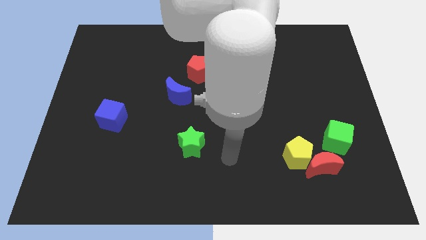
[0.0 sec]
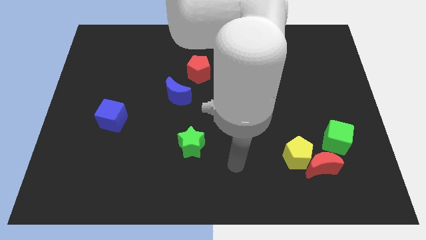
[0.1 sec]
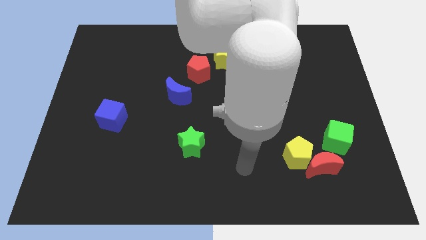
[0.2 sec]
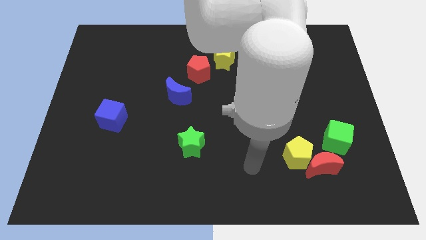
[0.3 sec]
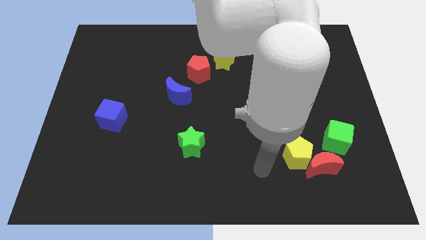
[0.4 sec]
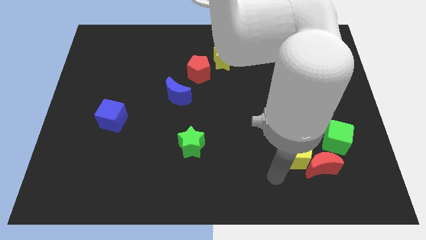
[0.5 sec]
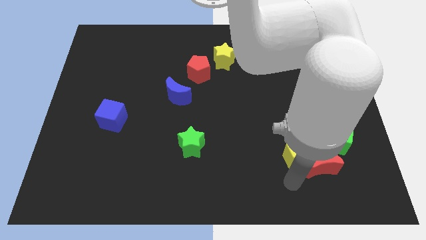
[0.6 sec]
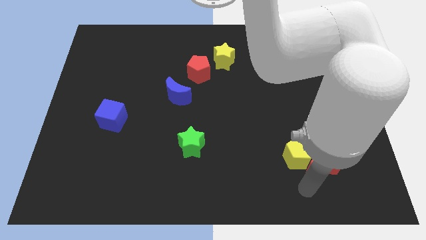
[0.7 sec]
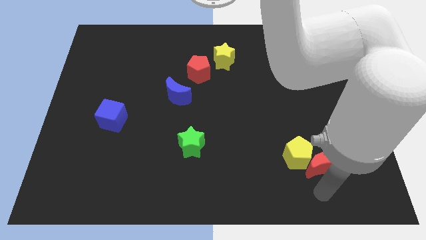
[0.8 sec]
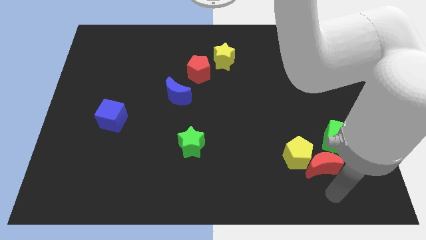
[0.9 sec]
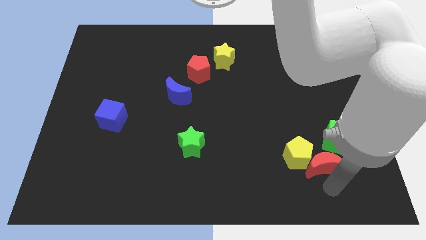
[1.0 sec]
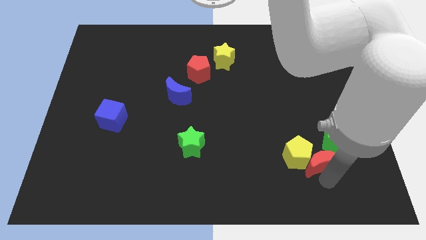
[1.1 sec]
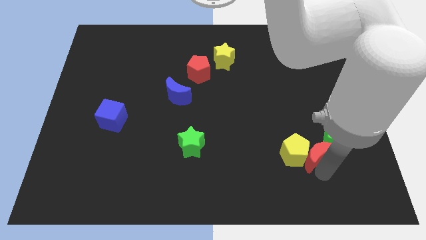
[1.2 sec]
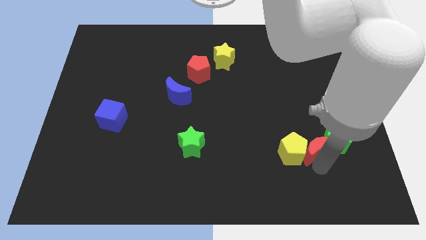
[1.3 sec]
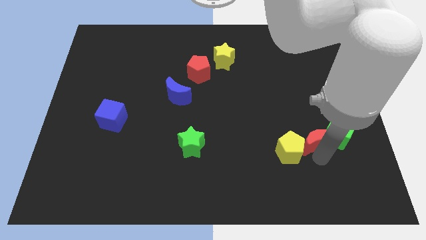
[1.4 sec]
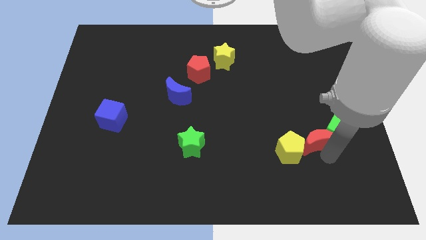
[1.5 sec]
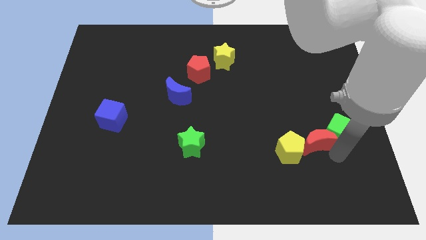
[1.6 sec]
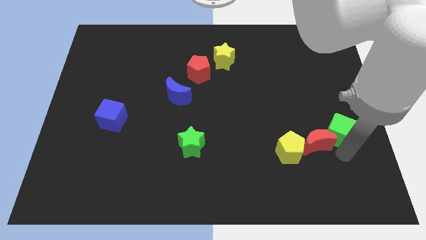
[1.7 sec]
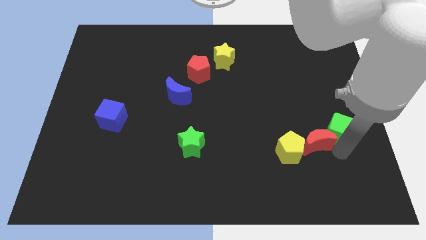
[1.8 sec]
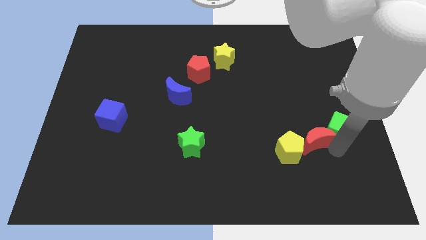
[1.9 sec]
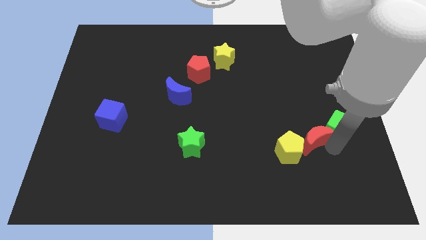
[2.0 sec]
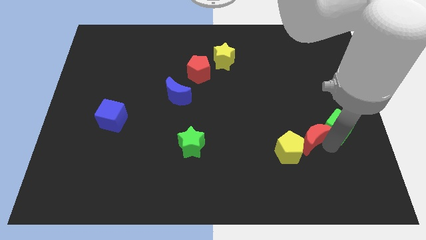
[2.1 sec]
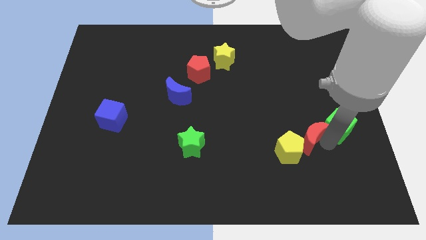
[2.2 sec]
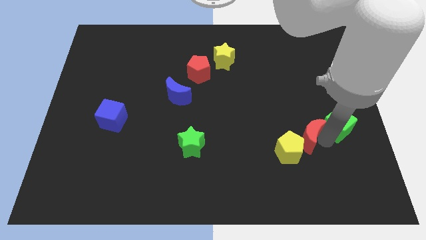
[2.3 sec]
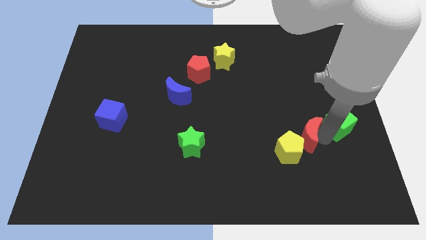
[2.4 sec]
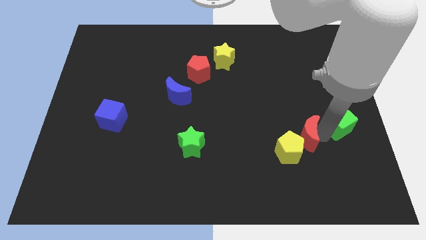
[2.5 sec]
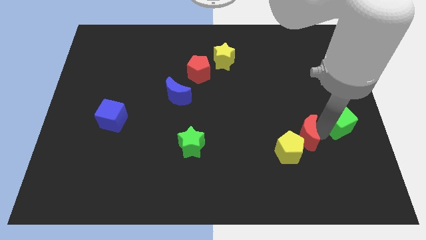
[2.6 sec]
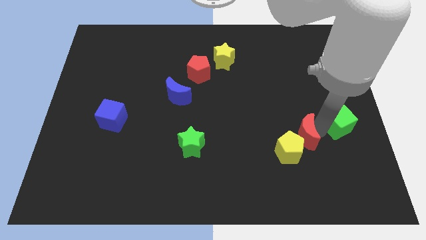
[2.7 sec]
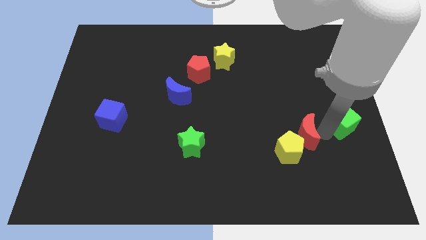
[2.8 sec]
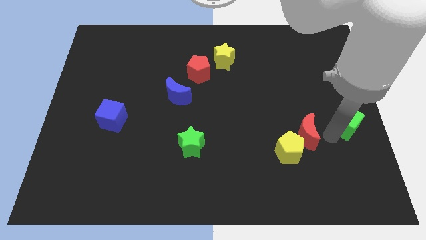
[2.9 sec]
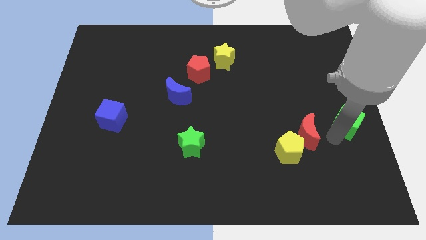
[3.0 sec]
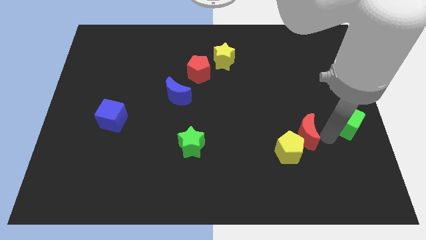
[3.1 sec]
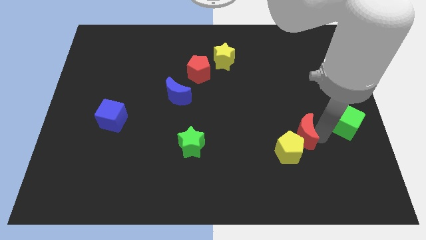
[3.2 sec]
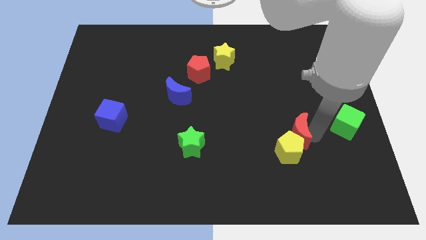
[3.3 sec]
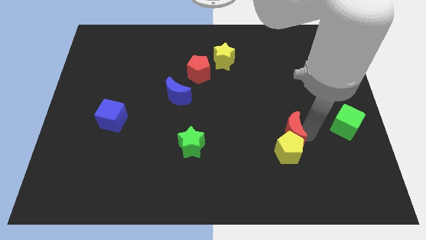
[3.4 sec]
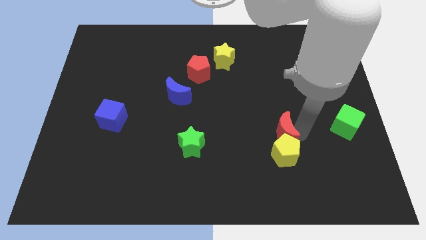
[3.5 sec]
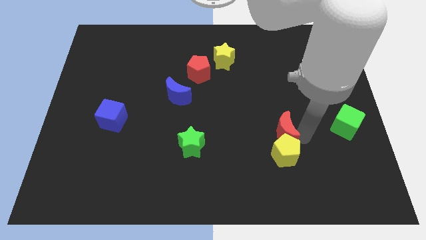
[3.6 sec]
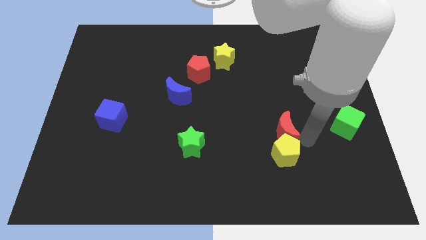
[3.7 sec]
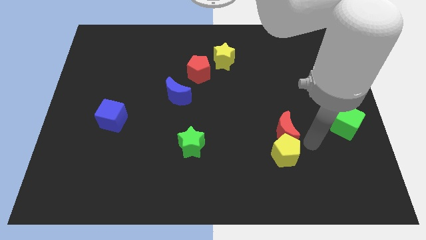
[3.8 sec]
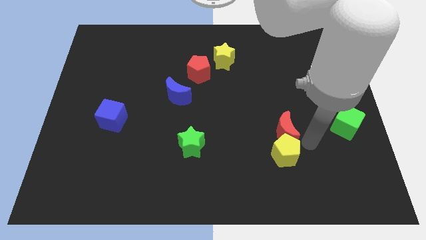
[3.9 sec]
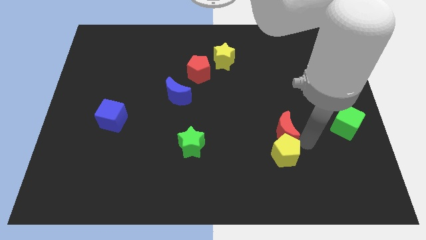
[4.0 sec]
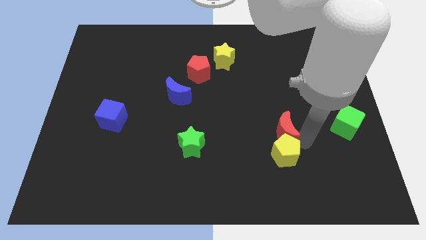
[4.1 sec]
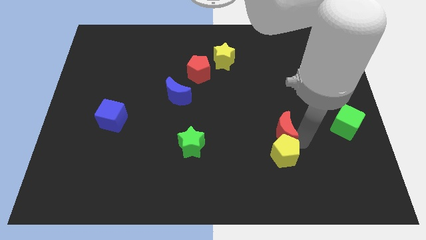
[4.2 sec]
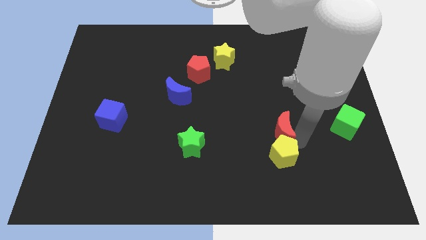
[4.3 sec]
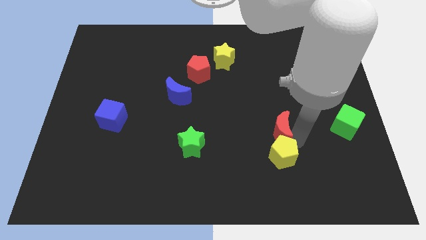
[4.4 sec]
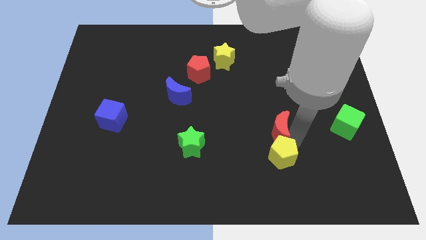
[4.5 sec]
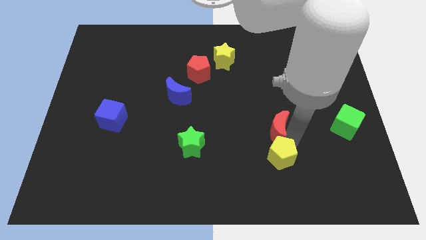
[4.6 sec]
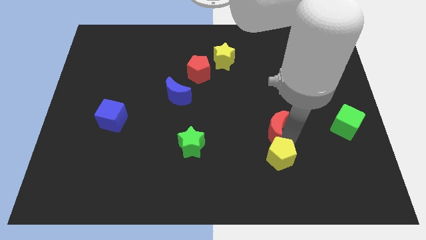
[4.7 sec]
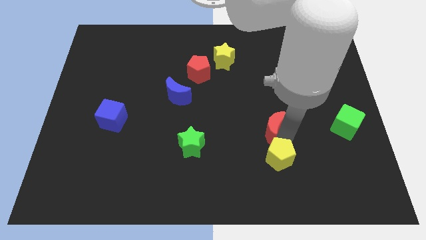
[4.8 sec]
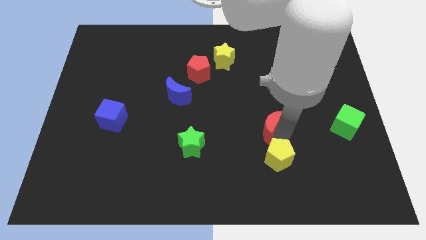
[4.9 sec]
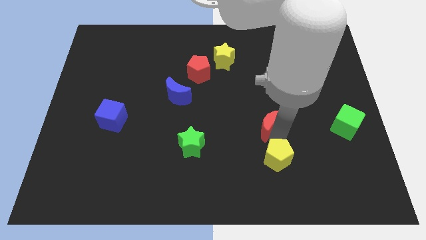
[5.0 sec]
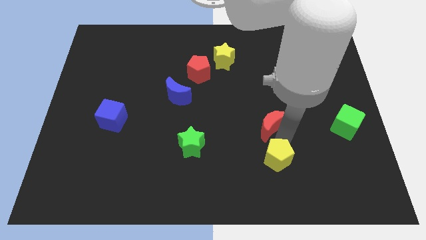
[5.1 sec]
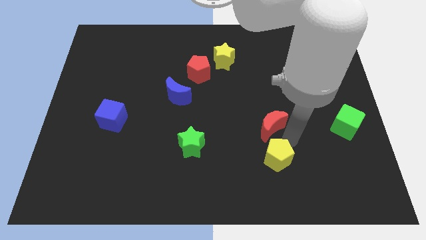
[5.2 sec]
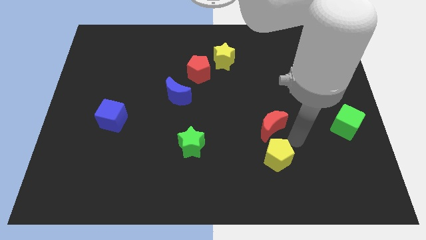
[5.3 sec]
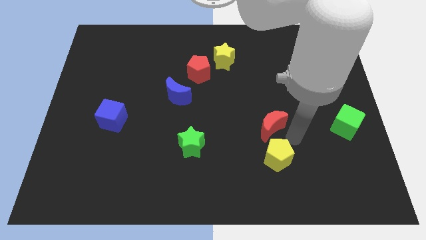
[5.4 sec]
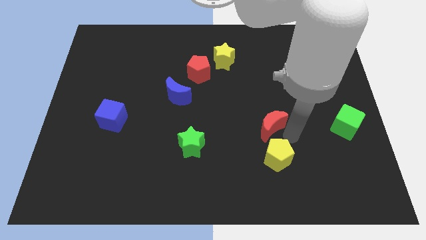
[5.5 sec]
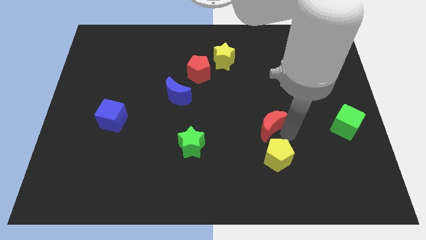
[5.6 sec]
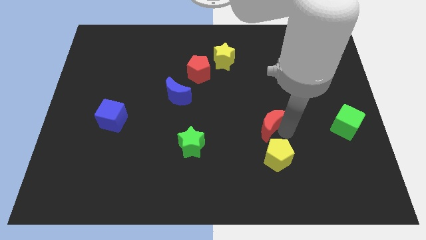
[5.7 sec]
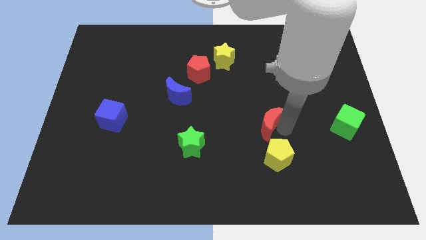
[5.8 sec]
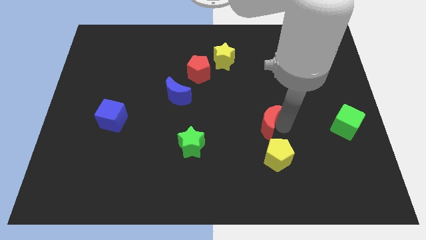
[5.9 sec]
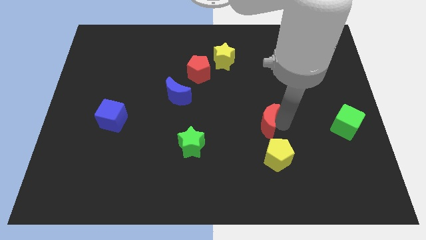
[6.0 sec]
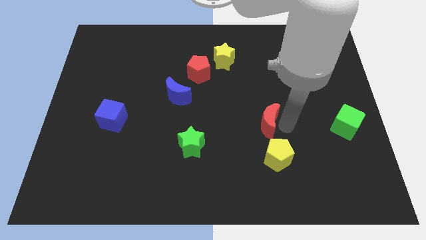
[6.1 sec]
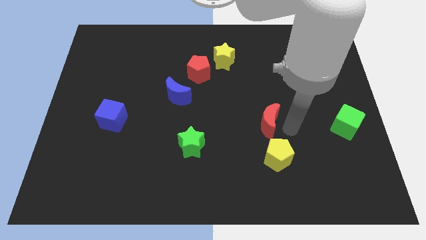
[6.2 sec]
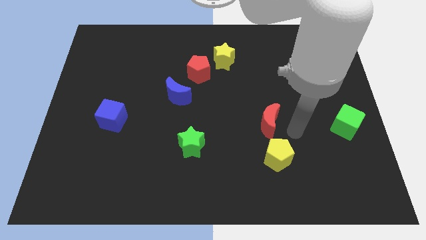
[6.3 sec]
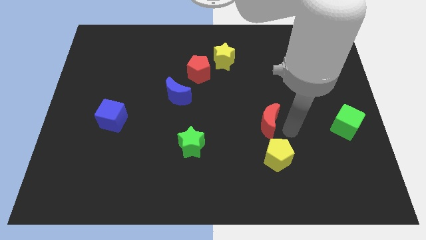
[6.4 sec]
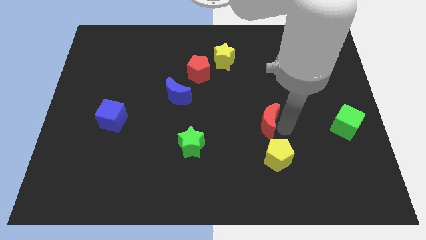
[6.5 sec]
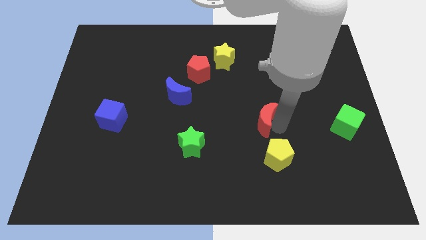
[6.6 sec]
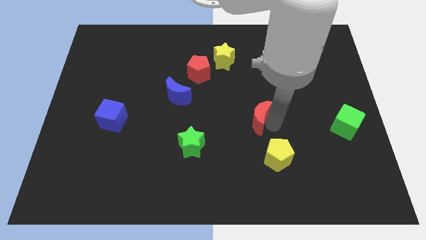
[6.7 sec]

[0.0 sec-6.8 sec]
put the red moon to the center of the board
